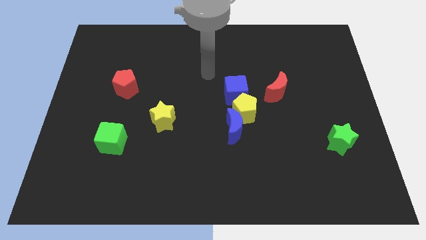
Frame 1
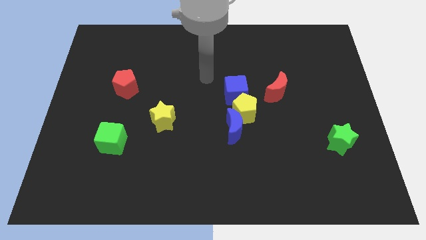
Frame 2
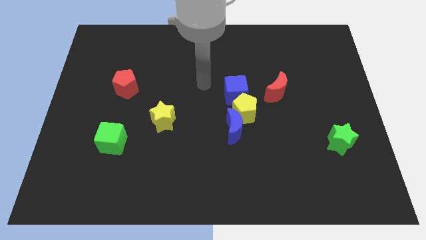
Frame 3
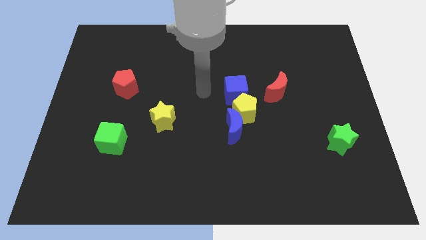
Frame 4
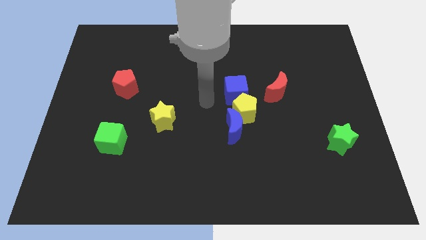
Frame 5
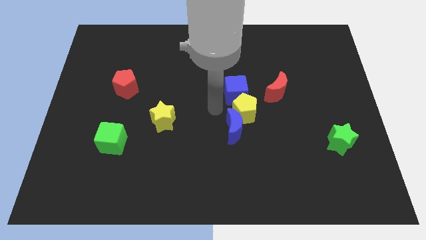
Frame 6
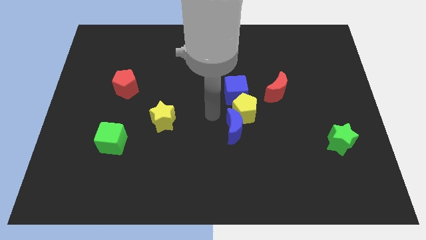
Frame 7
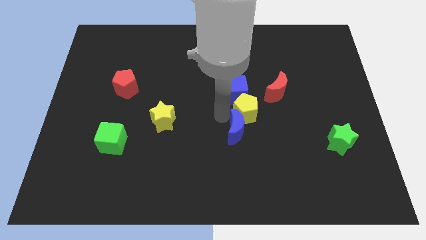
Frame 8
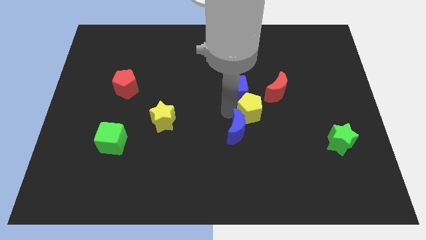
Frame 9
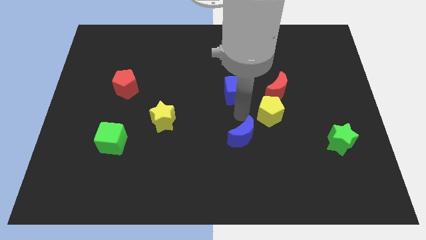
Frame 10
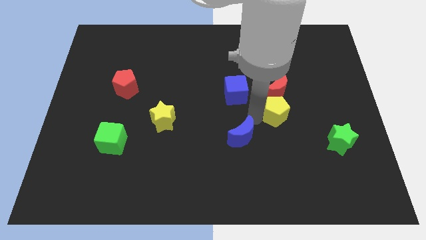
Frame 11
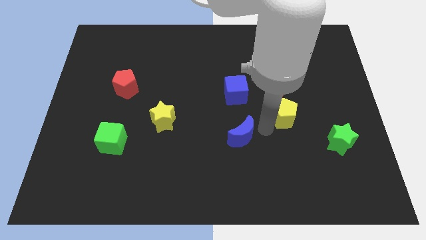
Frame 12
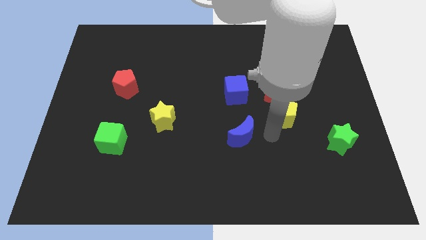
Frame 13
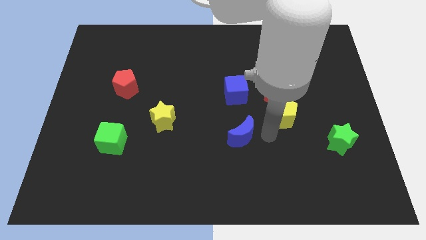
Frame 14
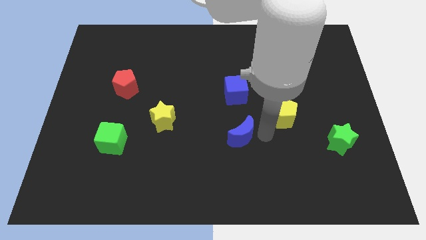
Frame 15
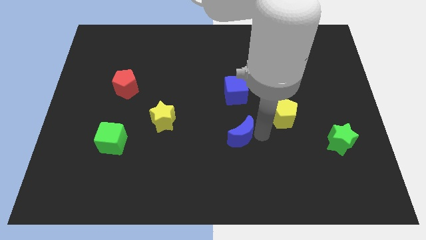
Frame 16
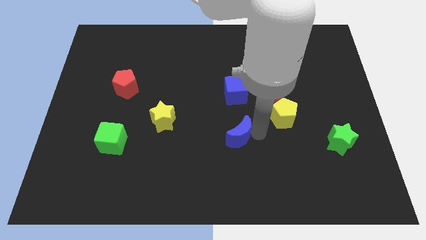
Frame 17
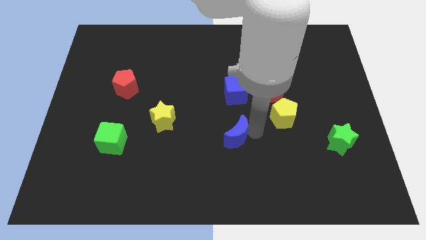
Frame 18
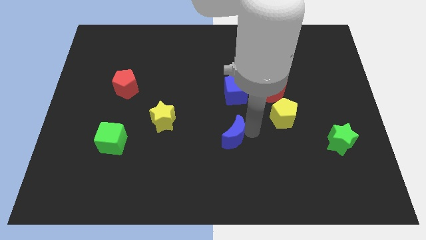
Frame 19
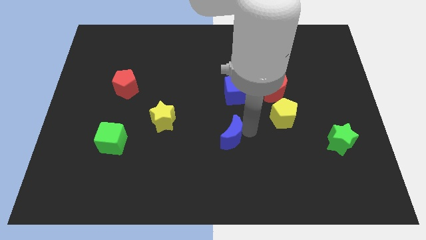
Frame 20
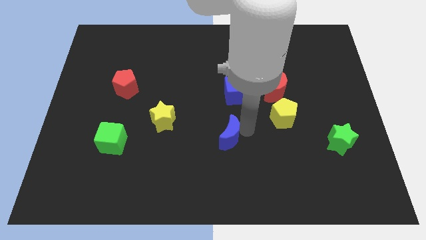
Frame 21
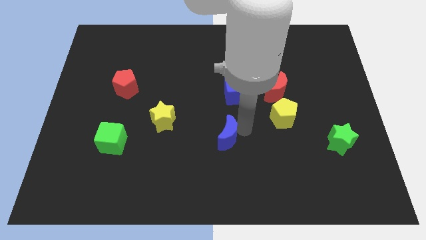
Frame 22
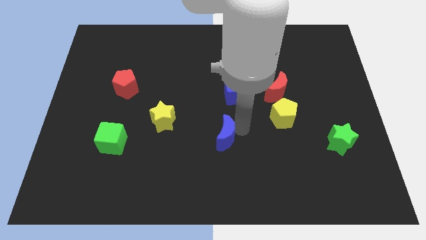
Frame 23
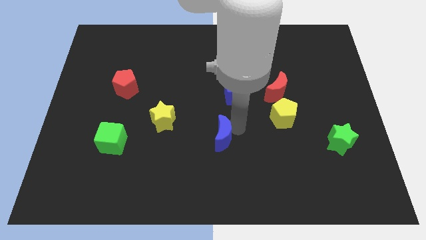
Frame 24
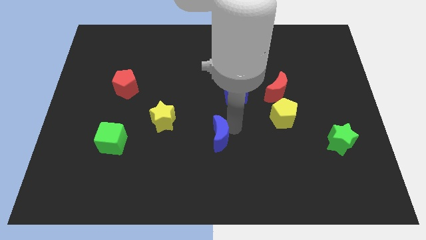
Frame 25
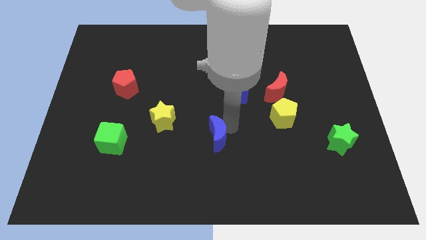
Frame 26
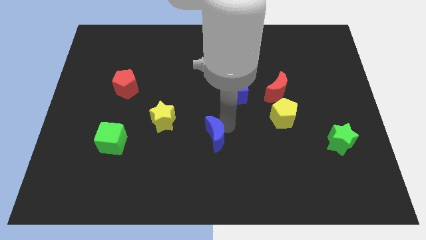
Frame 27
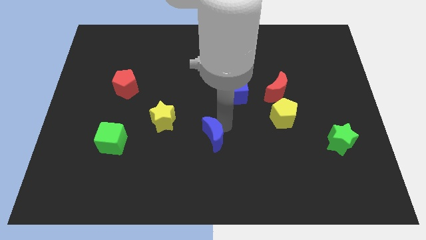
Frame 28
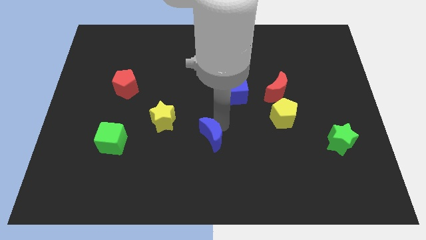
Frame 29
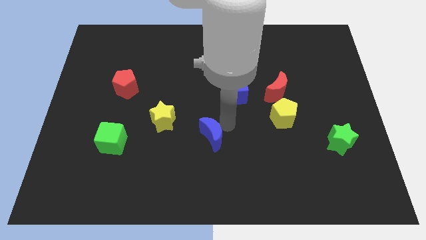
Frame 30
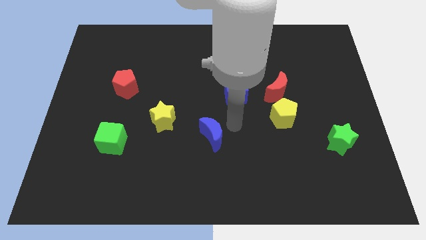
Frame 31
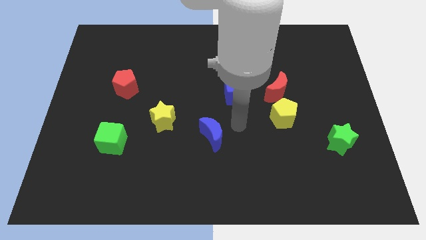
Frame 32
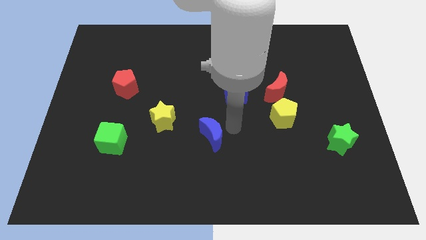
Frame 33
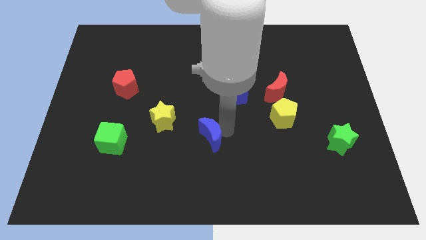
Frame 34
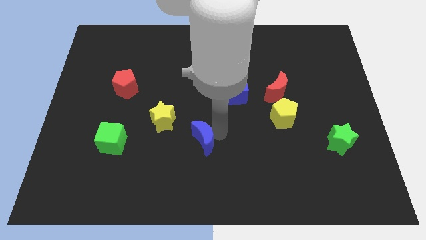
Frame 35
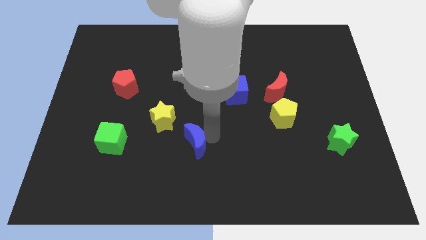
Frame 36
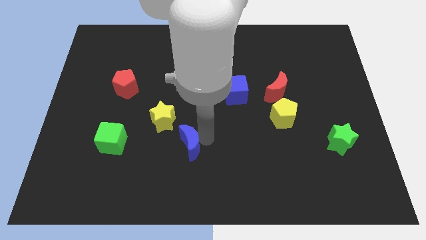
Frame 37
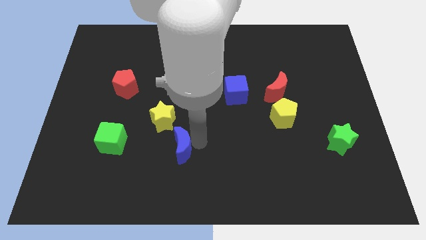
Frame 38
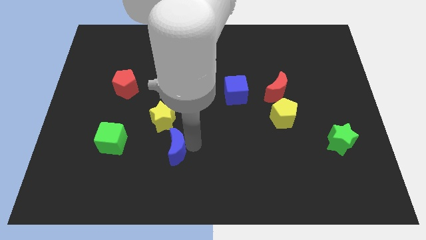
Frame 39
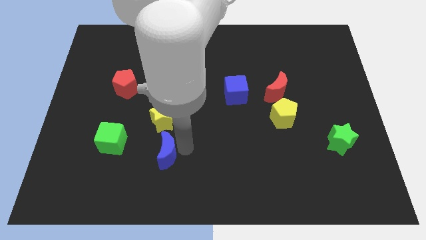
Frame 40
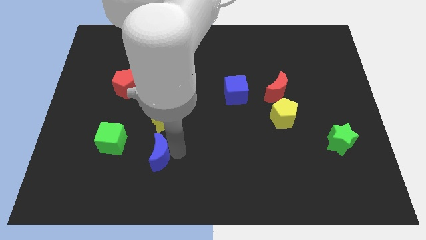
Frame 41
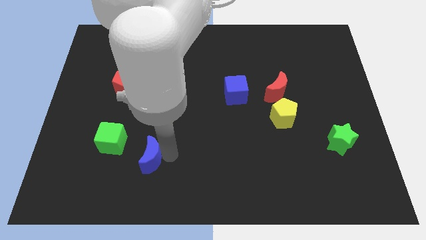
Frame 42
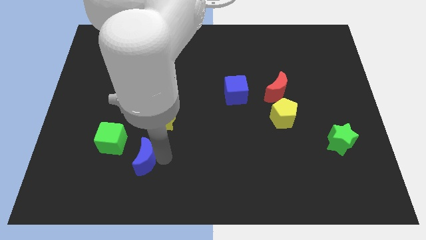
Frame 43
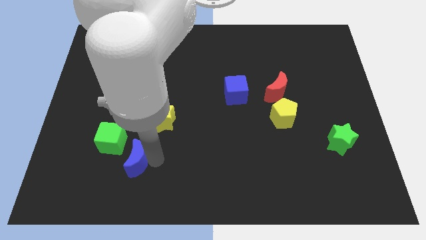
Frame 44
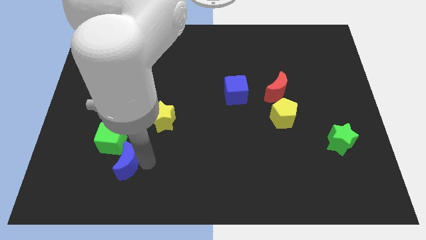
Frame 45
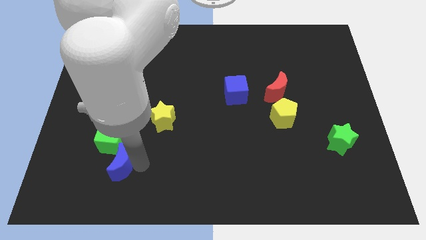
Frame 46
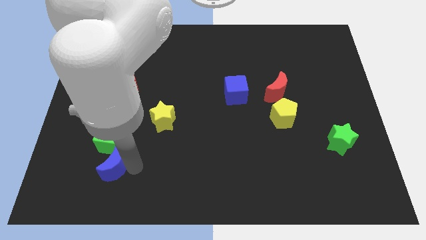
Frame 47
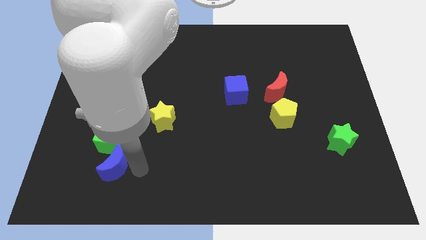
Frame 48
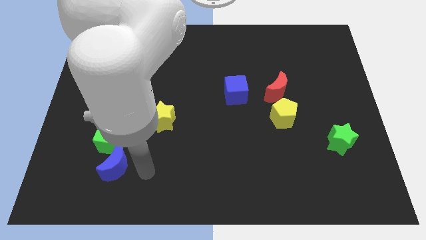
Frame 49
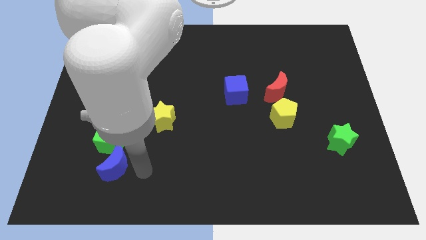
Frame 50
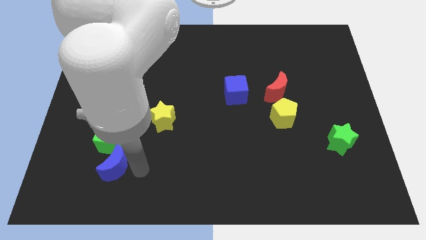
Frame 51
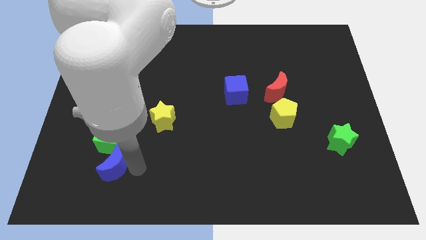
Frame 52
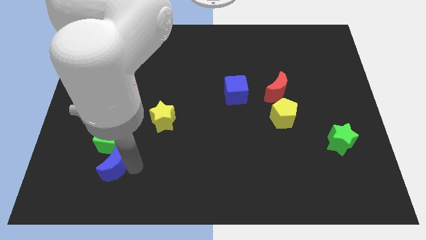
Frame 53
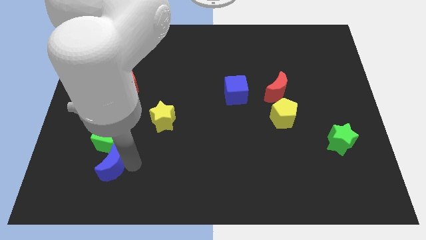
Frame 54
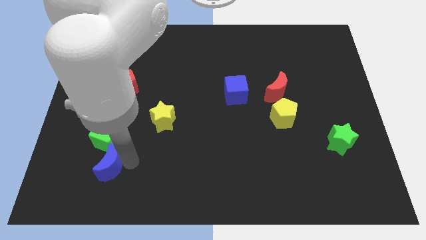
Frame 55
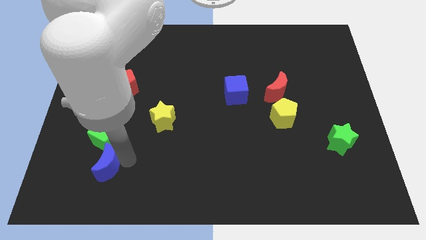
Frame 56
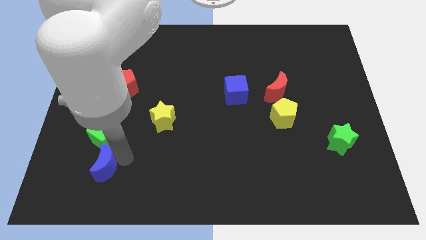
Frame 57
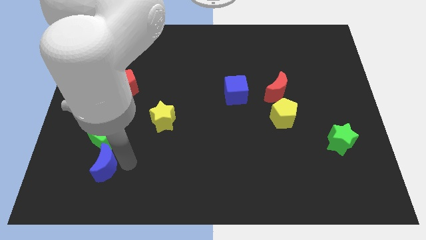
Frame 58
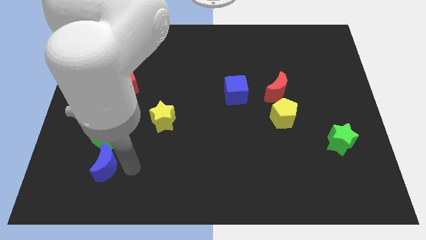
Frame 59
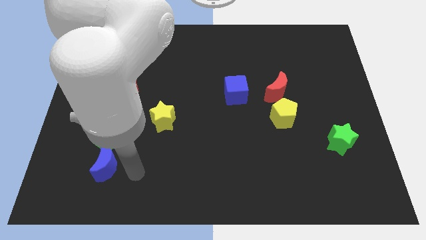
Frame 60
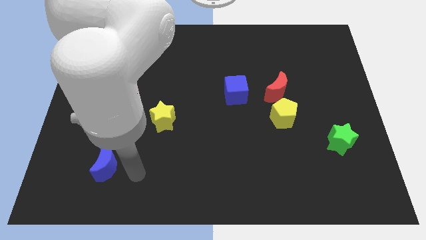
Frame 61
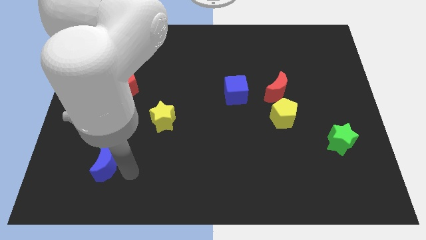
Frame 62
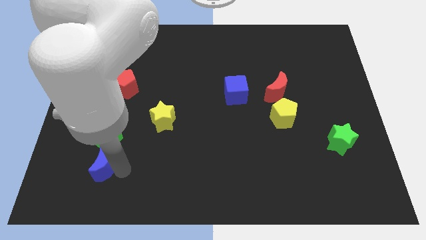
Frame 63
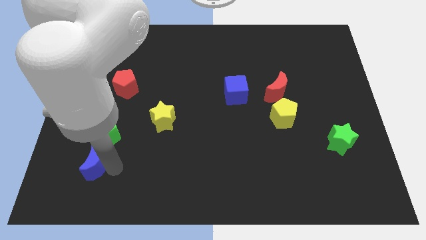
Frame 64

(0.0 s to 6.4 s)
move the blue moon diagonally down and to the left of the green cube

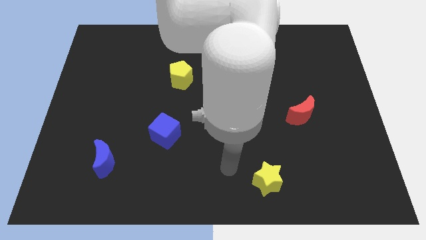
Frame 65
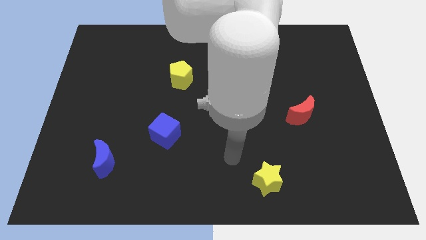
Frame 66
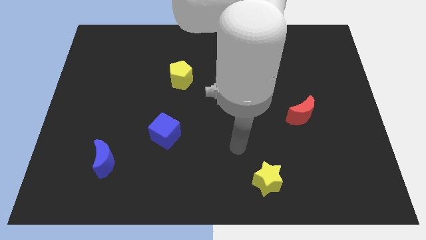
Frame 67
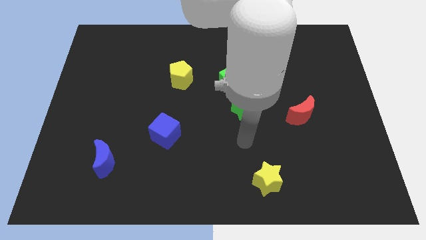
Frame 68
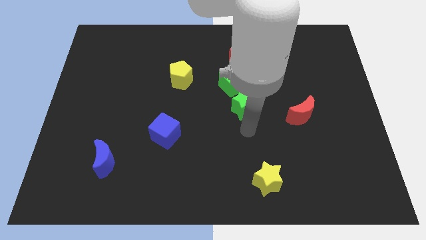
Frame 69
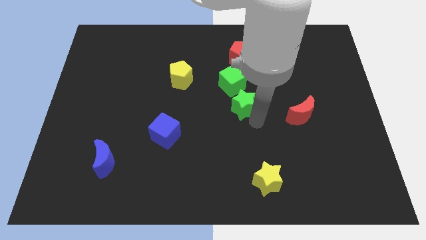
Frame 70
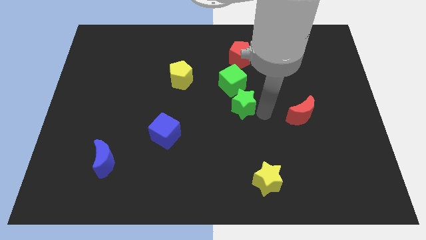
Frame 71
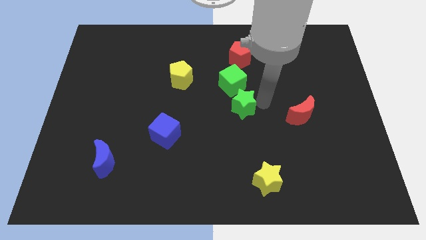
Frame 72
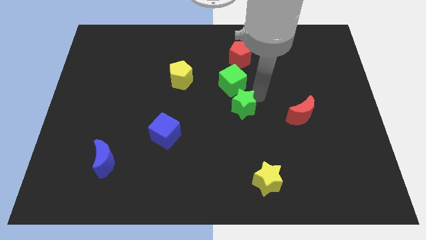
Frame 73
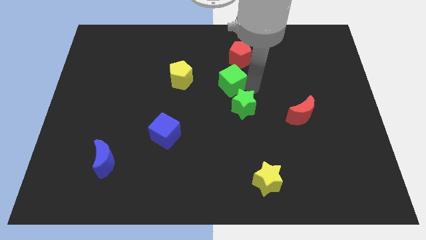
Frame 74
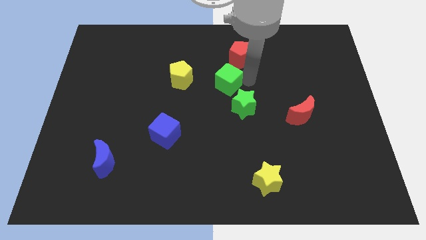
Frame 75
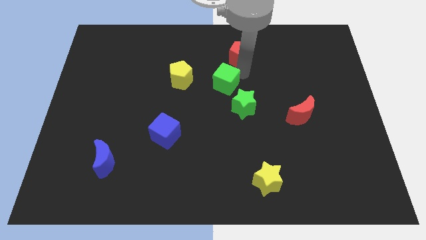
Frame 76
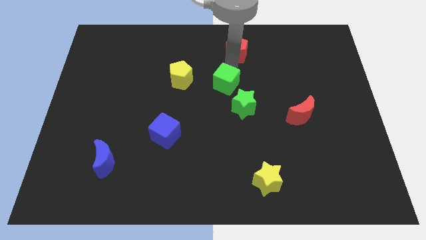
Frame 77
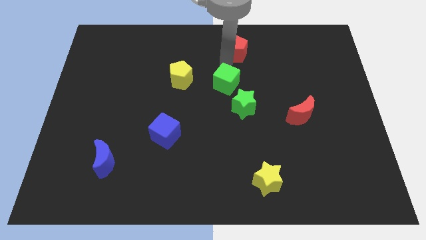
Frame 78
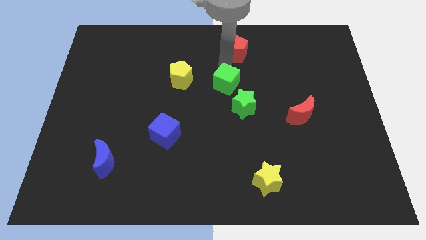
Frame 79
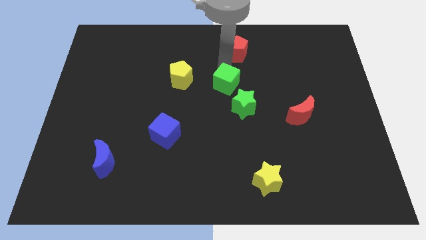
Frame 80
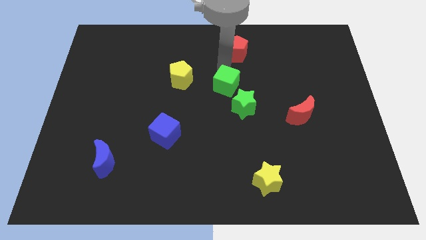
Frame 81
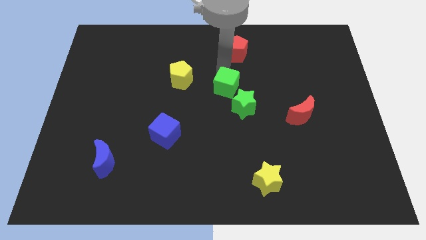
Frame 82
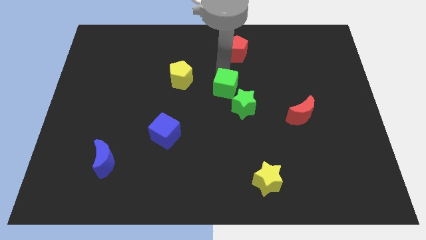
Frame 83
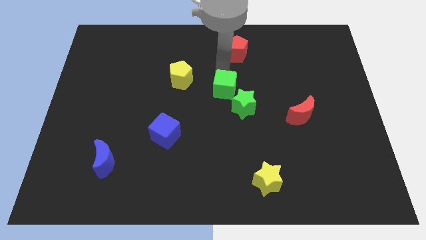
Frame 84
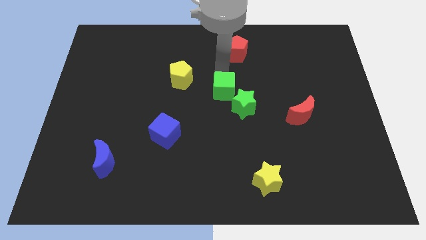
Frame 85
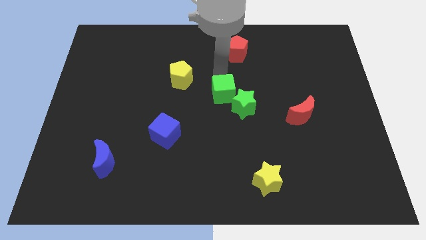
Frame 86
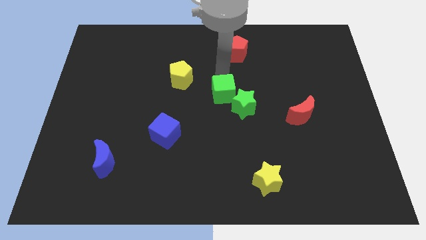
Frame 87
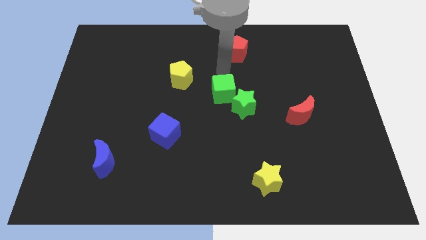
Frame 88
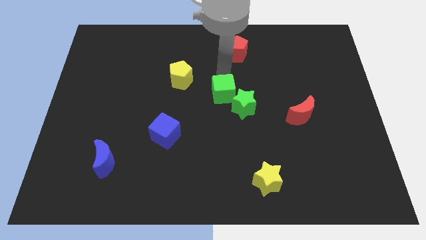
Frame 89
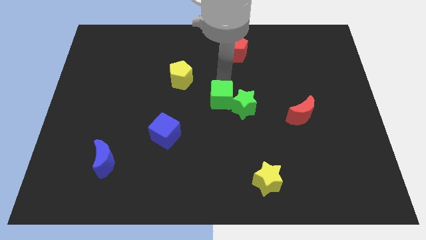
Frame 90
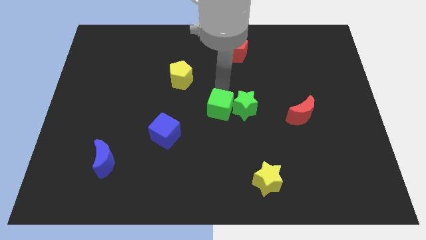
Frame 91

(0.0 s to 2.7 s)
push the green cube to the bottom left side of the green star
